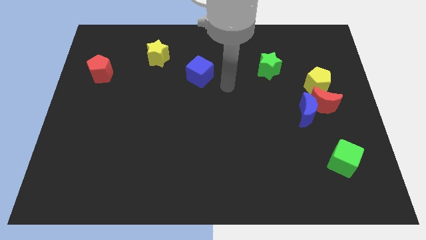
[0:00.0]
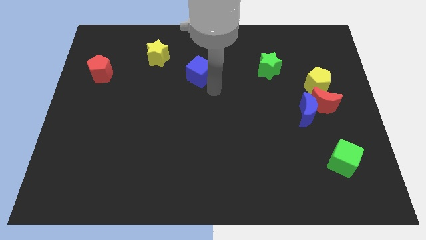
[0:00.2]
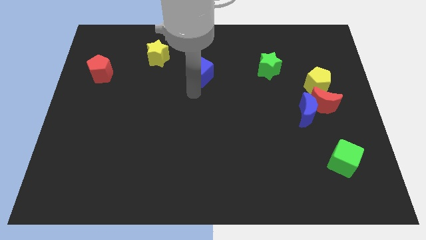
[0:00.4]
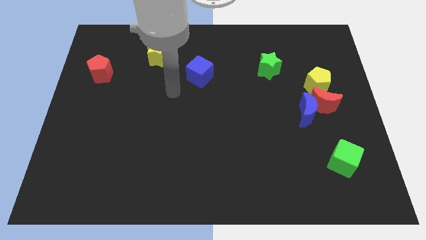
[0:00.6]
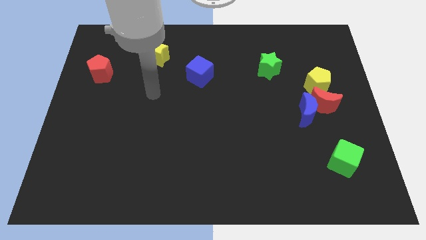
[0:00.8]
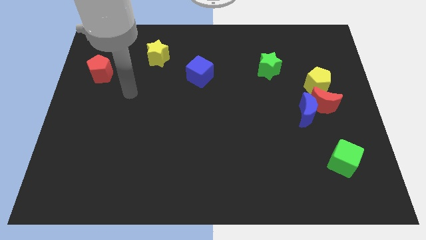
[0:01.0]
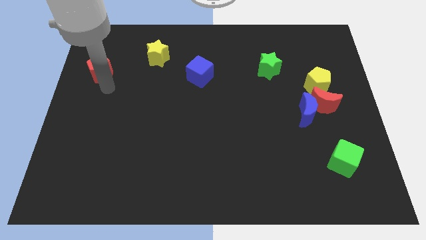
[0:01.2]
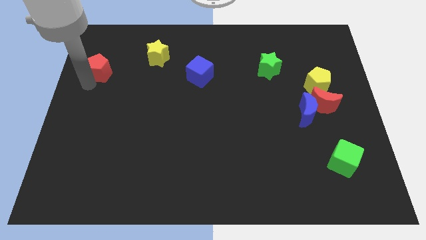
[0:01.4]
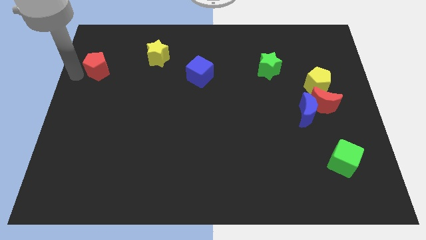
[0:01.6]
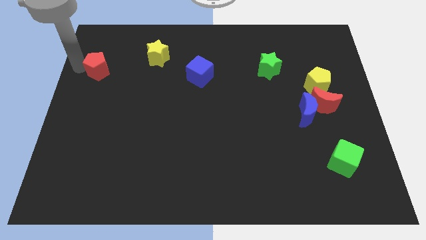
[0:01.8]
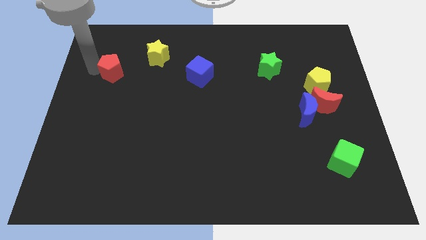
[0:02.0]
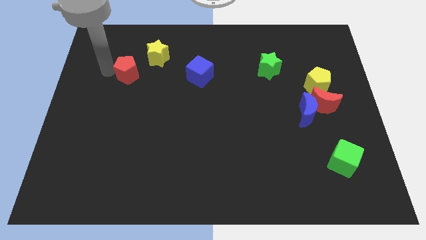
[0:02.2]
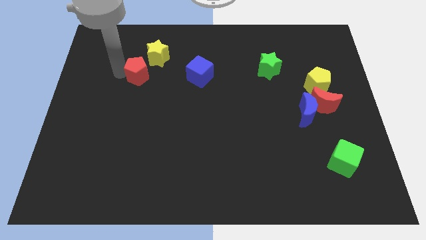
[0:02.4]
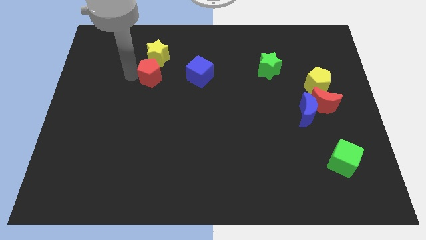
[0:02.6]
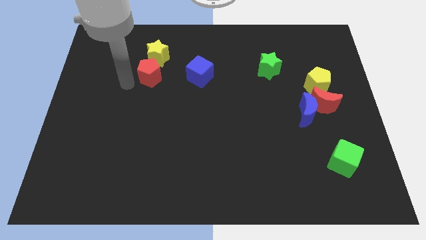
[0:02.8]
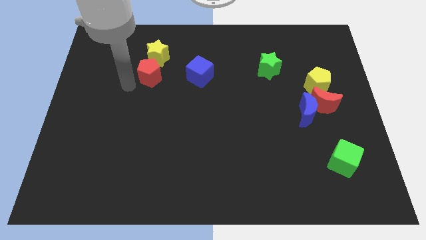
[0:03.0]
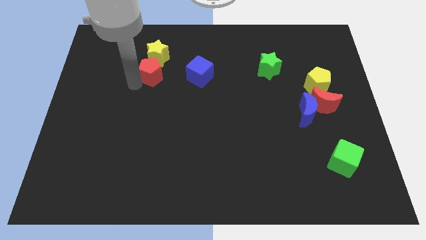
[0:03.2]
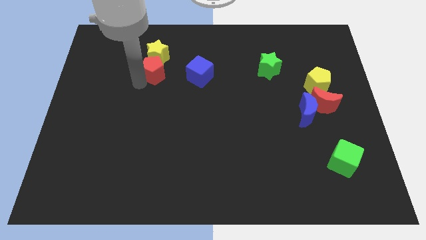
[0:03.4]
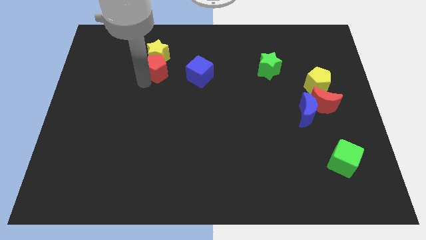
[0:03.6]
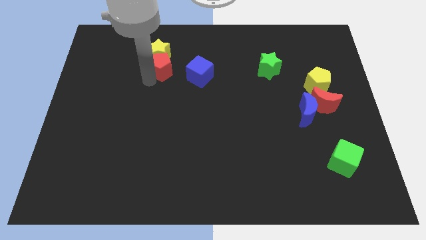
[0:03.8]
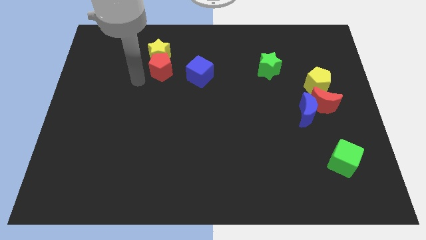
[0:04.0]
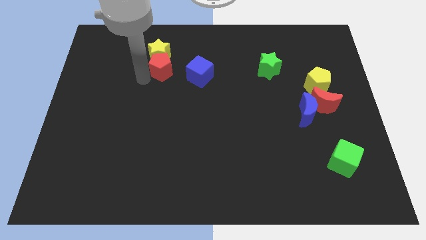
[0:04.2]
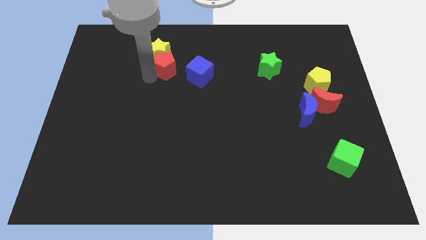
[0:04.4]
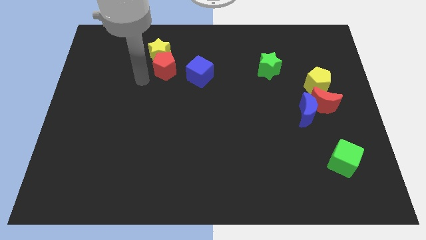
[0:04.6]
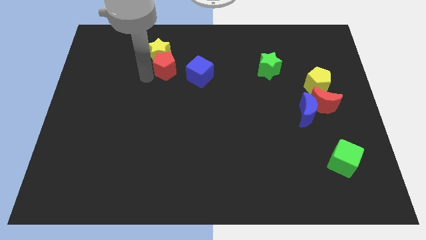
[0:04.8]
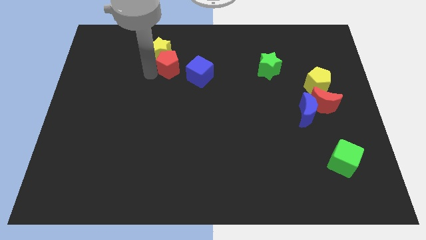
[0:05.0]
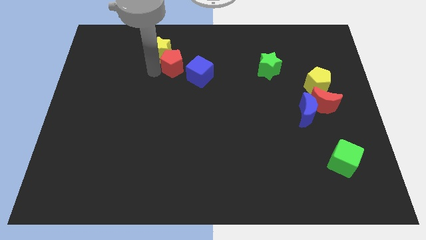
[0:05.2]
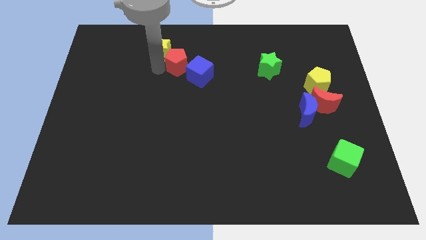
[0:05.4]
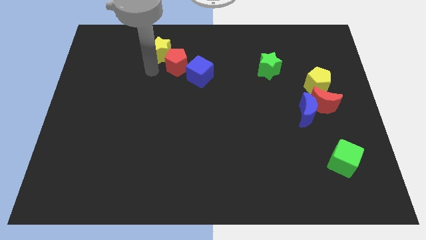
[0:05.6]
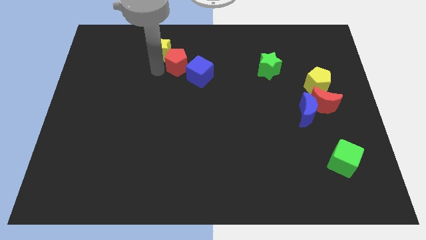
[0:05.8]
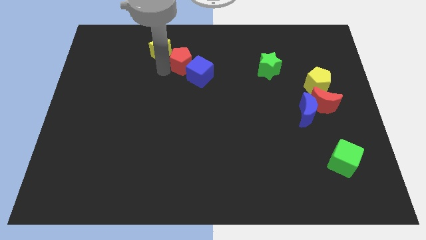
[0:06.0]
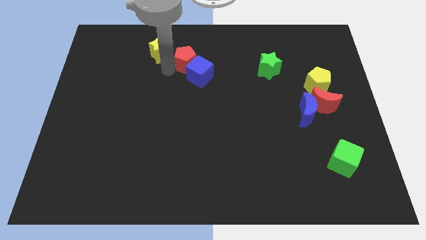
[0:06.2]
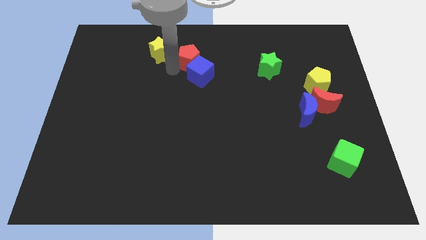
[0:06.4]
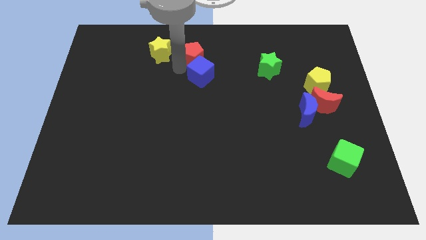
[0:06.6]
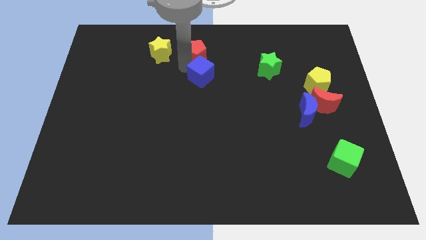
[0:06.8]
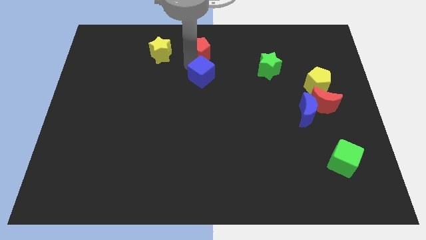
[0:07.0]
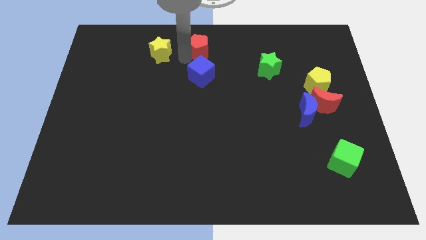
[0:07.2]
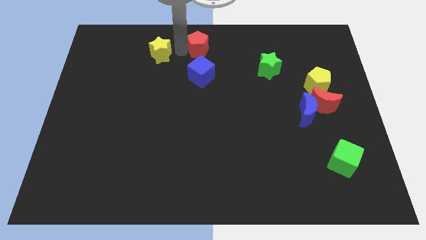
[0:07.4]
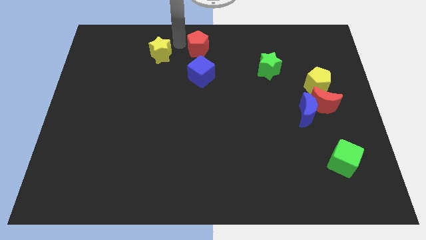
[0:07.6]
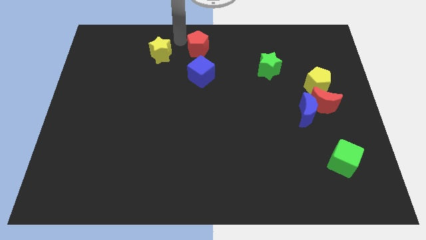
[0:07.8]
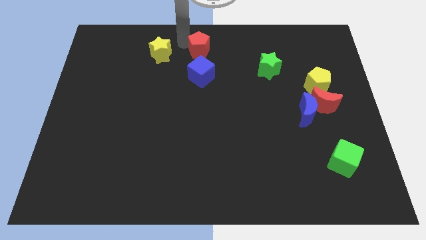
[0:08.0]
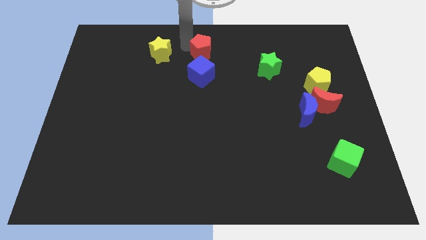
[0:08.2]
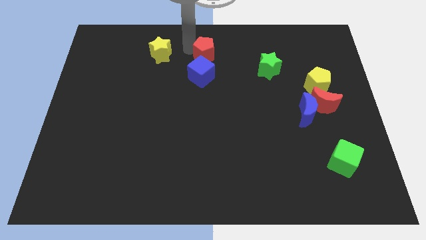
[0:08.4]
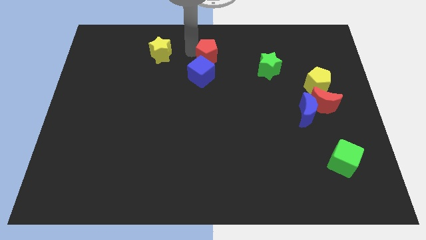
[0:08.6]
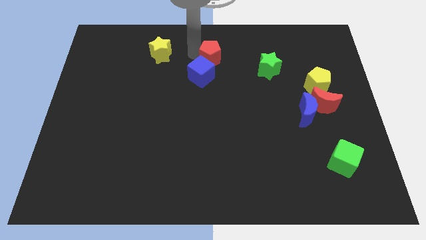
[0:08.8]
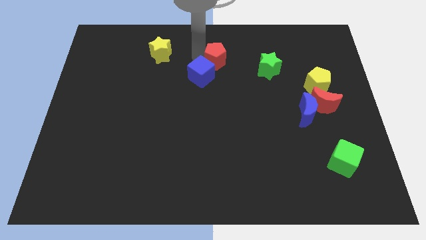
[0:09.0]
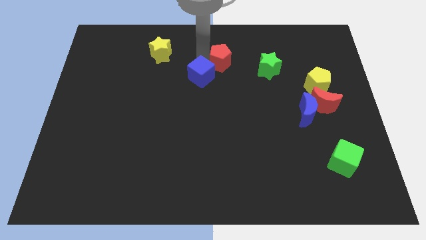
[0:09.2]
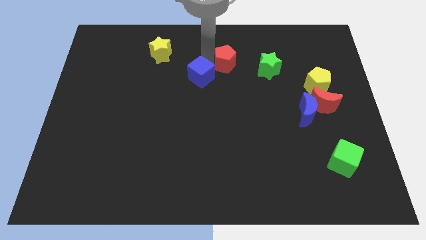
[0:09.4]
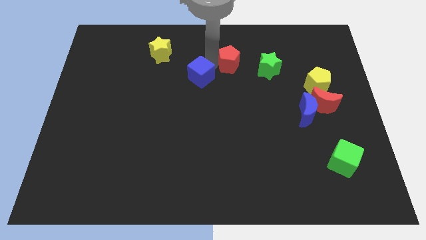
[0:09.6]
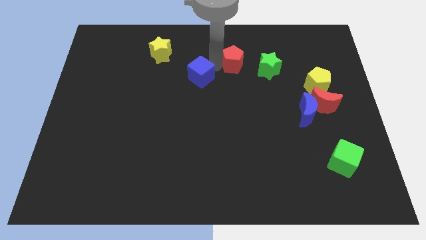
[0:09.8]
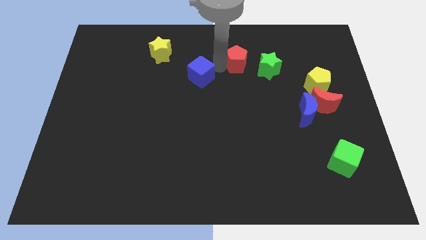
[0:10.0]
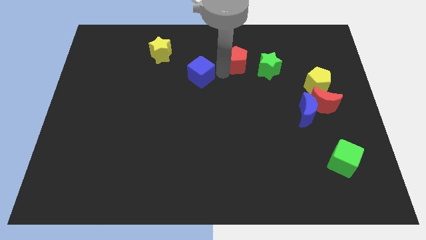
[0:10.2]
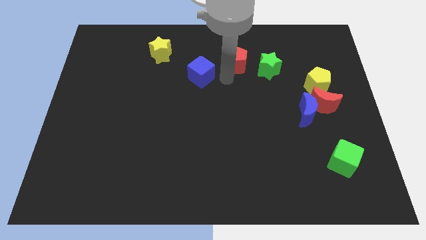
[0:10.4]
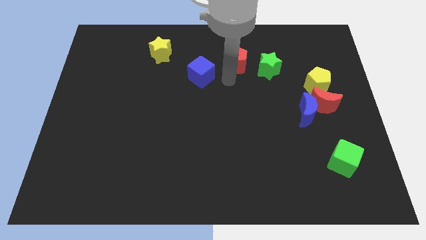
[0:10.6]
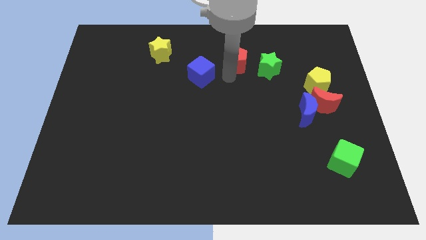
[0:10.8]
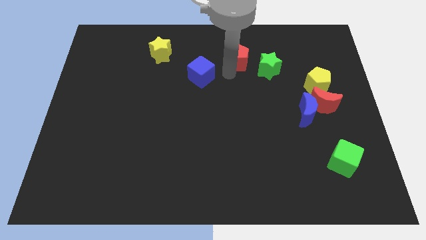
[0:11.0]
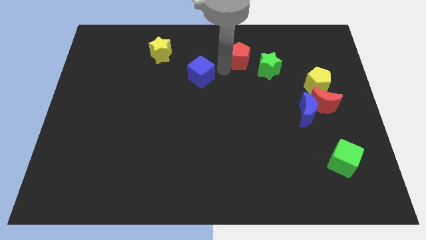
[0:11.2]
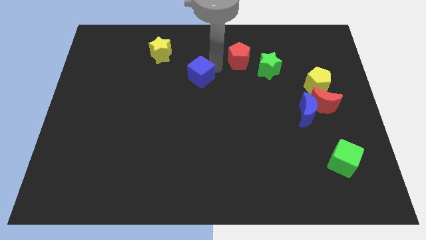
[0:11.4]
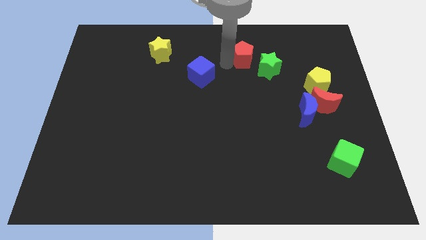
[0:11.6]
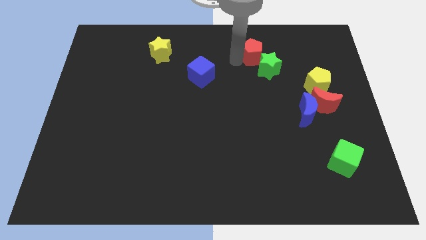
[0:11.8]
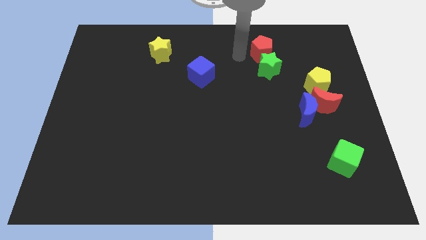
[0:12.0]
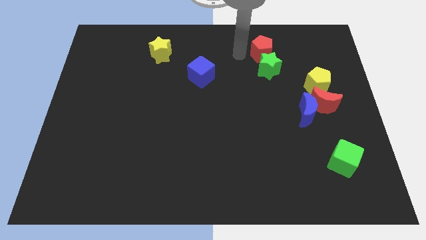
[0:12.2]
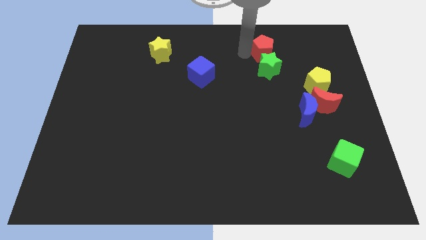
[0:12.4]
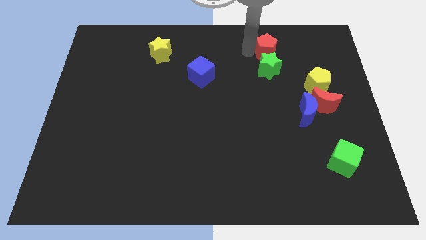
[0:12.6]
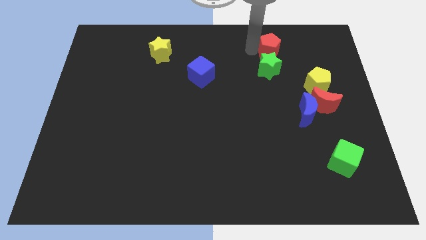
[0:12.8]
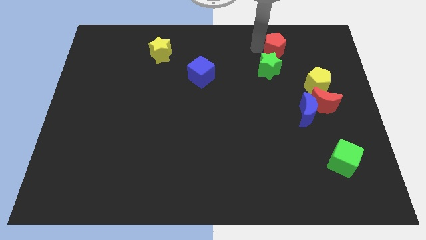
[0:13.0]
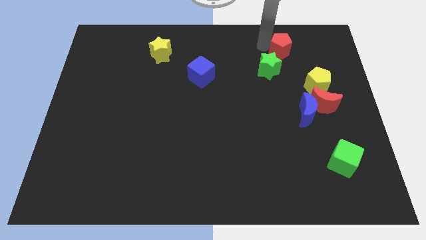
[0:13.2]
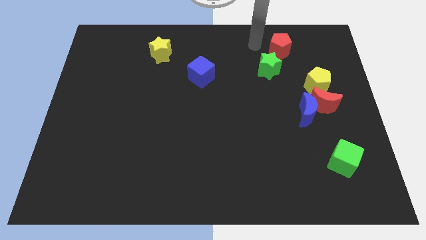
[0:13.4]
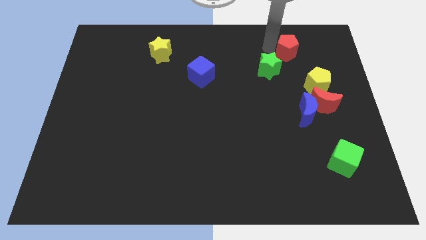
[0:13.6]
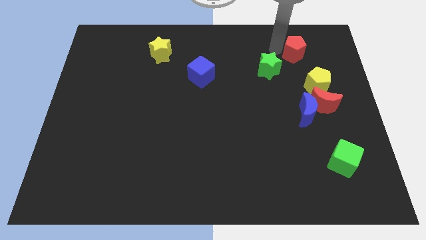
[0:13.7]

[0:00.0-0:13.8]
move the red pentagon to the top side of the yellow pentagon
